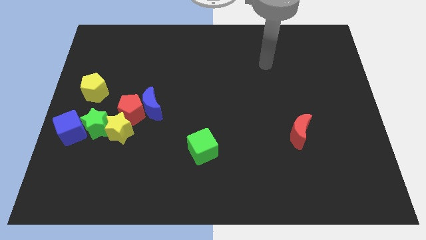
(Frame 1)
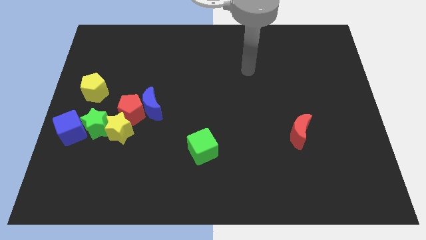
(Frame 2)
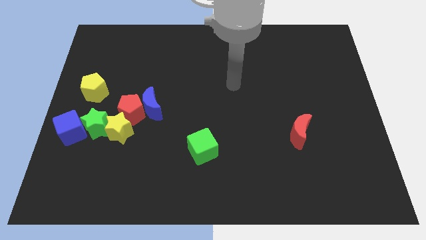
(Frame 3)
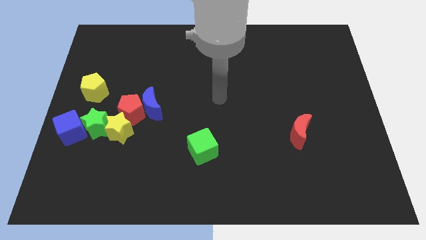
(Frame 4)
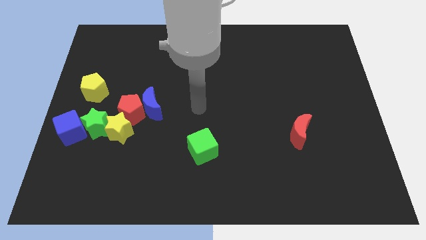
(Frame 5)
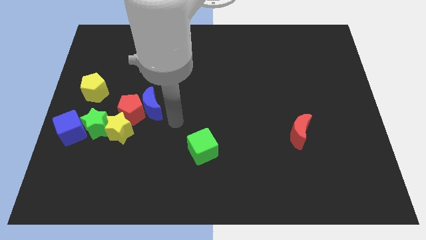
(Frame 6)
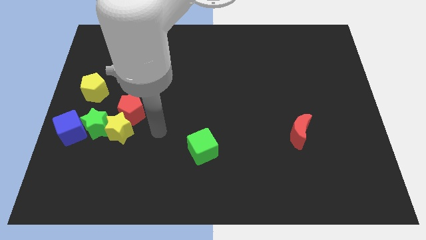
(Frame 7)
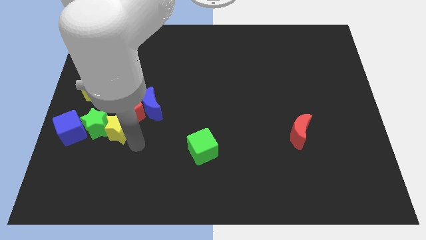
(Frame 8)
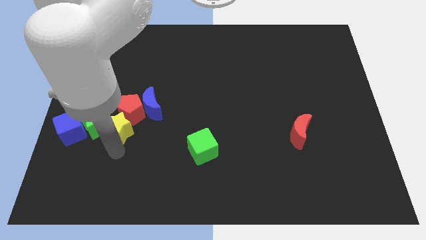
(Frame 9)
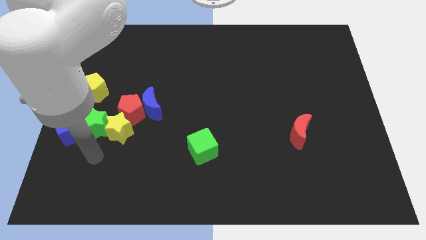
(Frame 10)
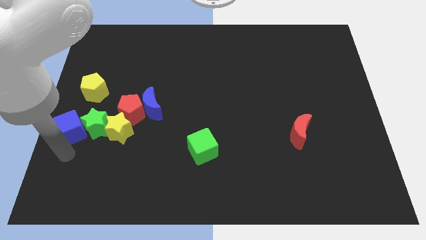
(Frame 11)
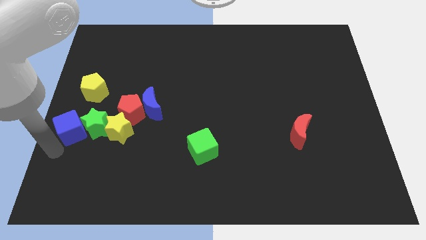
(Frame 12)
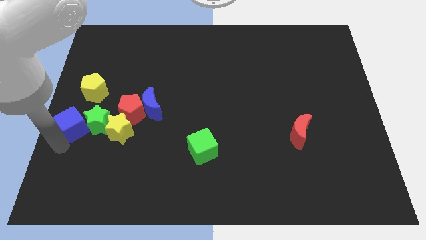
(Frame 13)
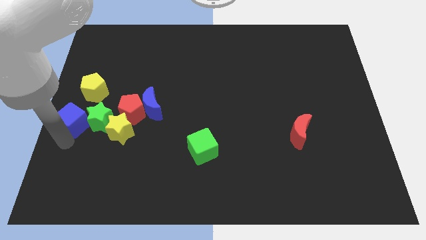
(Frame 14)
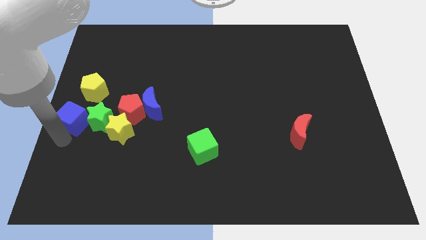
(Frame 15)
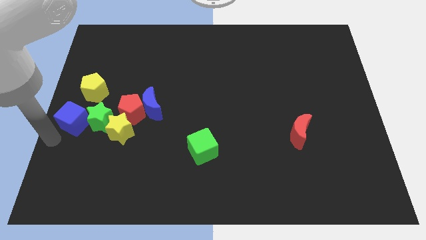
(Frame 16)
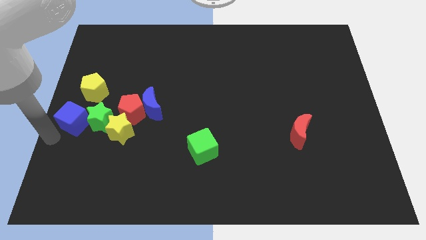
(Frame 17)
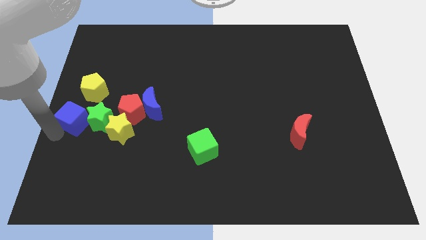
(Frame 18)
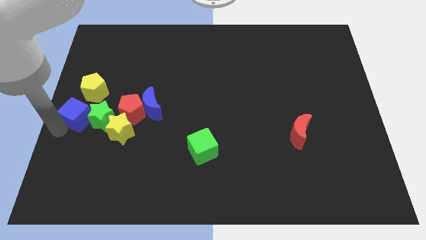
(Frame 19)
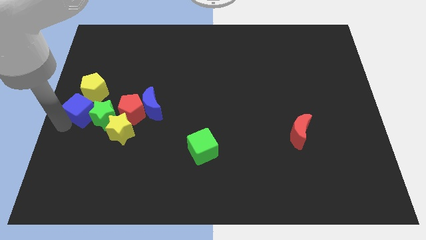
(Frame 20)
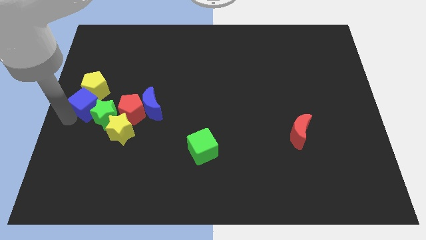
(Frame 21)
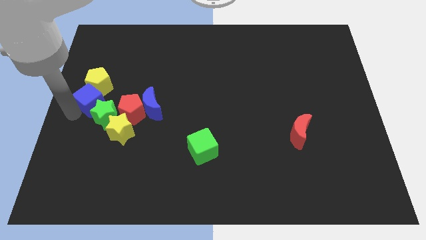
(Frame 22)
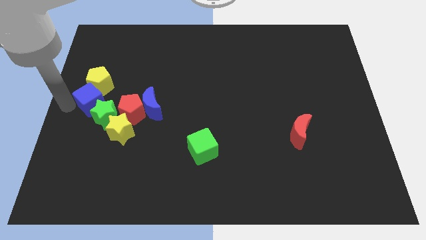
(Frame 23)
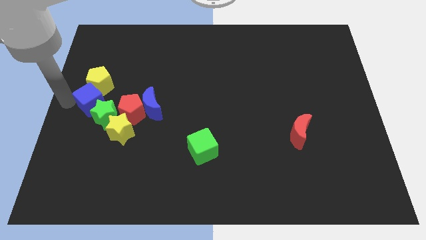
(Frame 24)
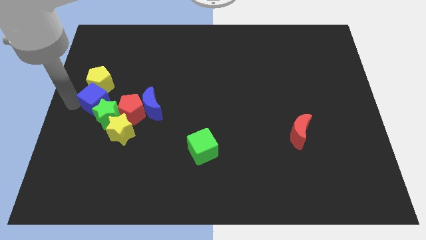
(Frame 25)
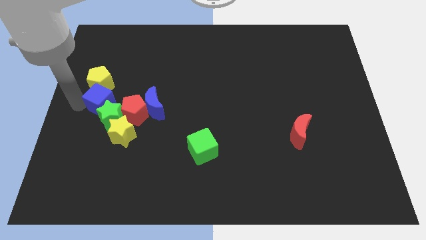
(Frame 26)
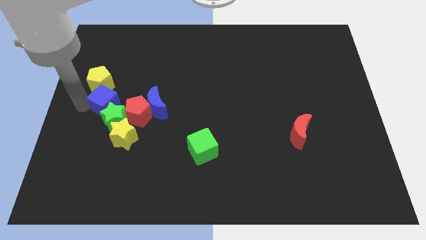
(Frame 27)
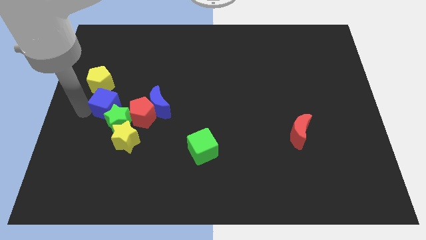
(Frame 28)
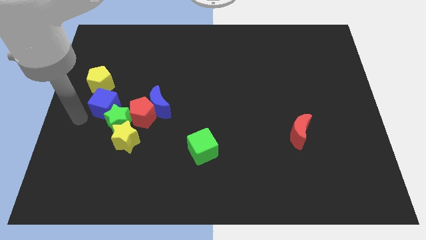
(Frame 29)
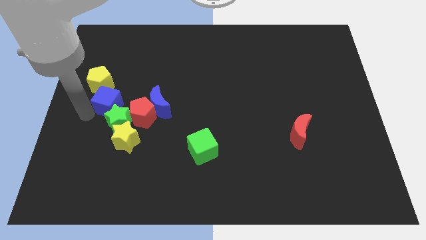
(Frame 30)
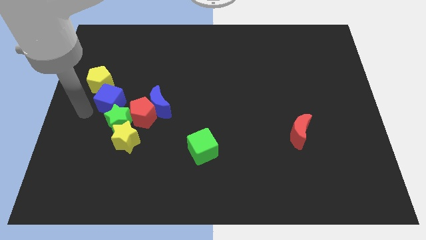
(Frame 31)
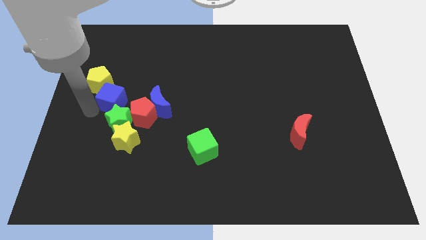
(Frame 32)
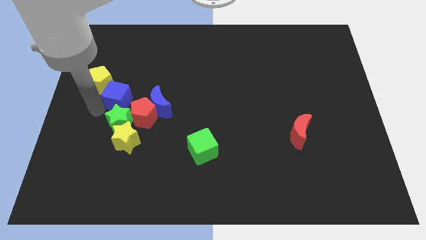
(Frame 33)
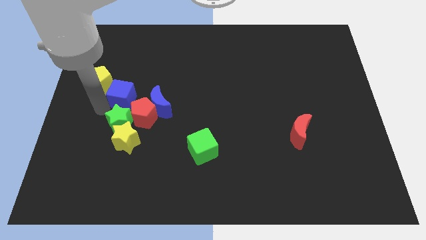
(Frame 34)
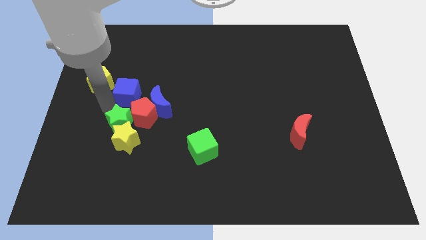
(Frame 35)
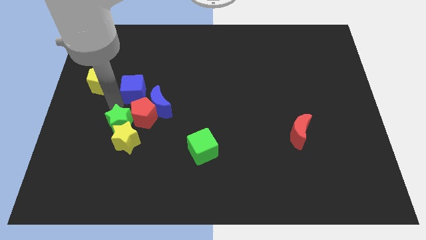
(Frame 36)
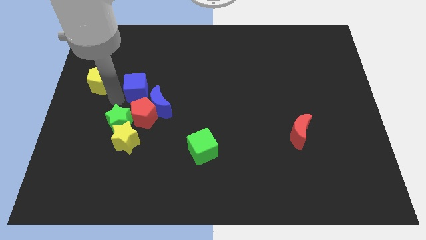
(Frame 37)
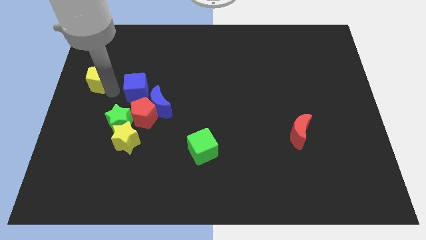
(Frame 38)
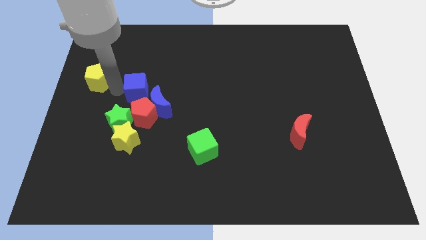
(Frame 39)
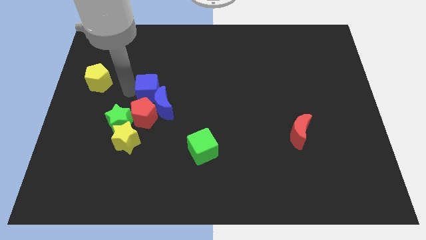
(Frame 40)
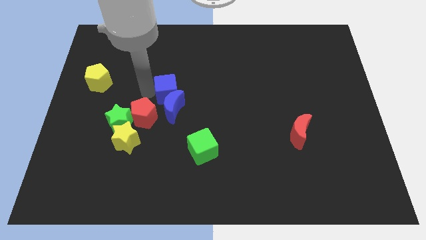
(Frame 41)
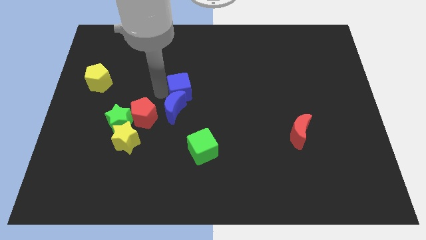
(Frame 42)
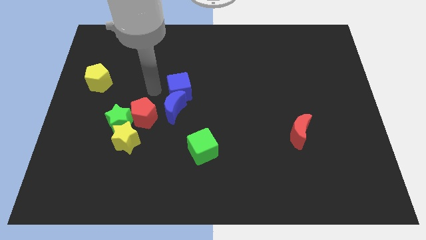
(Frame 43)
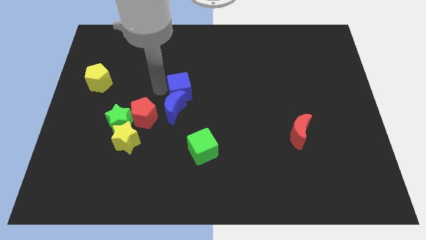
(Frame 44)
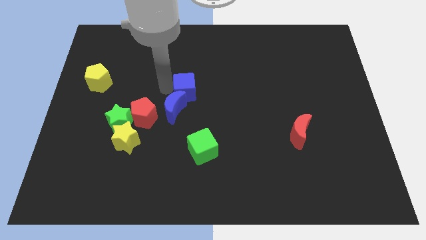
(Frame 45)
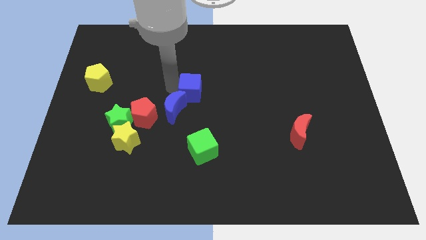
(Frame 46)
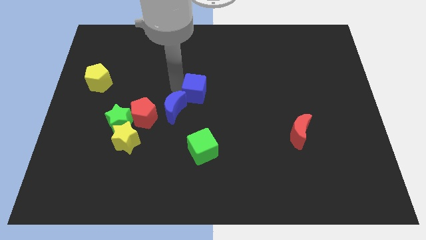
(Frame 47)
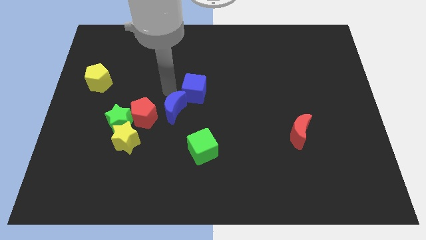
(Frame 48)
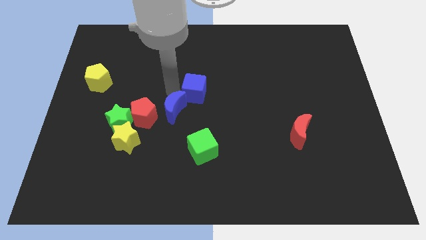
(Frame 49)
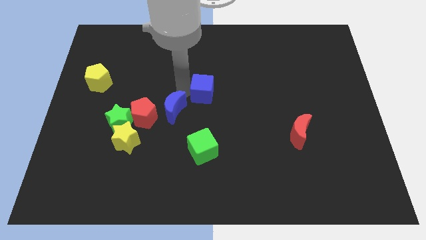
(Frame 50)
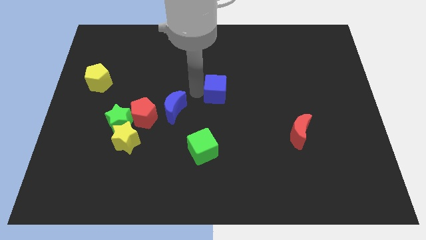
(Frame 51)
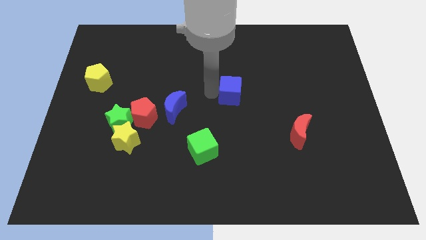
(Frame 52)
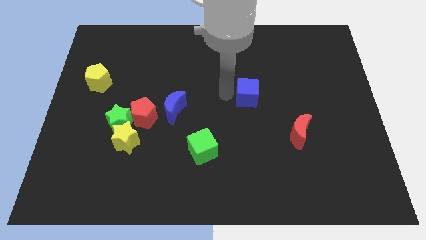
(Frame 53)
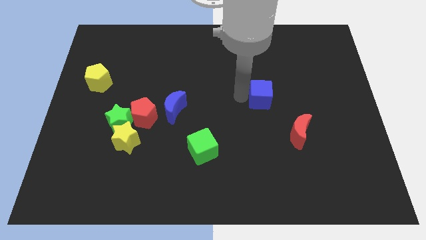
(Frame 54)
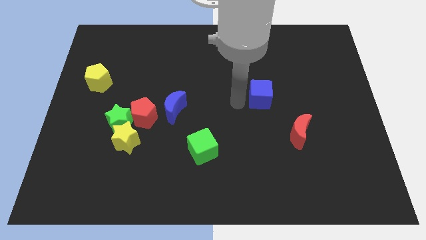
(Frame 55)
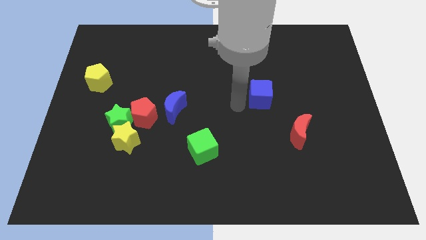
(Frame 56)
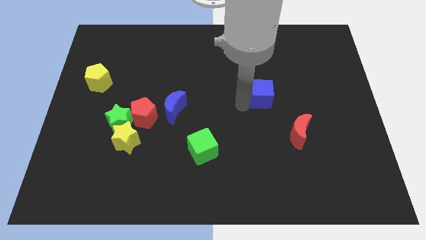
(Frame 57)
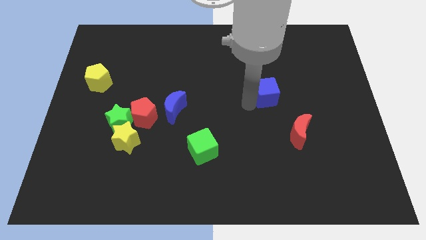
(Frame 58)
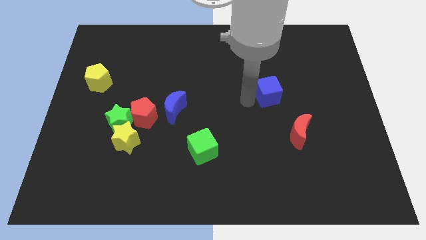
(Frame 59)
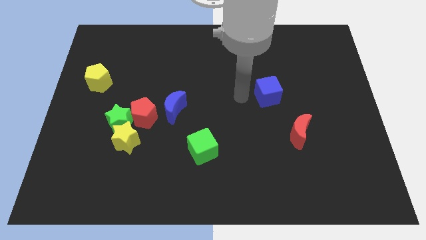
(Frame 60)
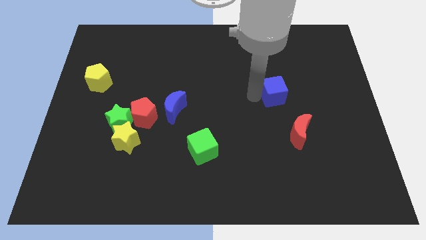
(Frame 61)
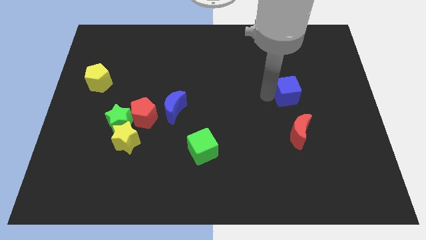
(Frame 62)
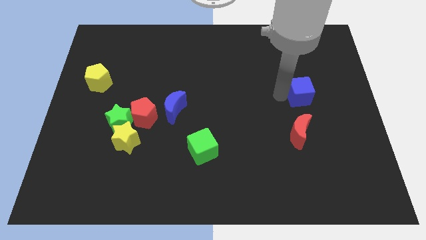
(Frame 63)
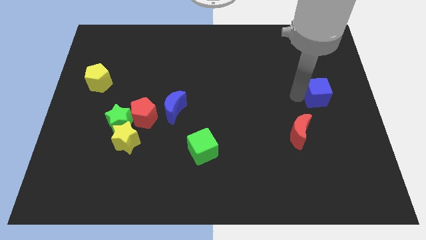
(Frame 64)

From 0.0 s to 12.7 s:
slide the blue cube to the right side of the board
